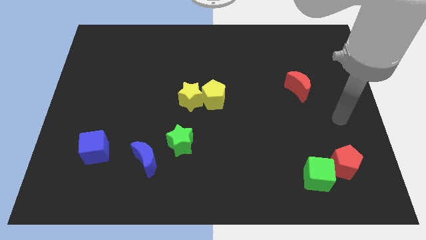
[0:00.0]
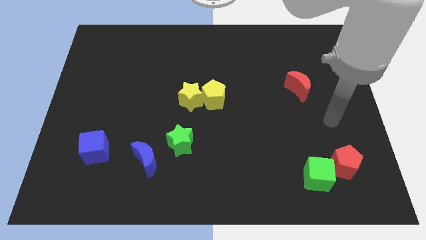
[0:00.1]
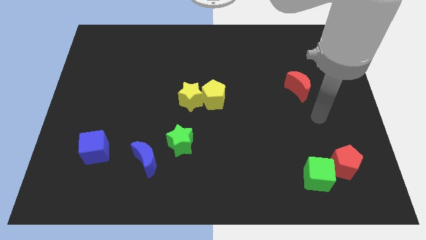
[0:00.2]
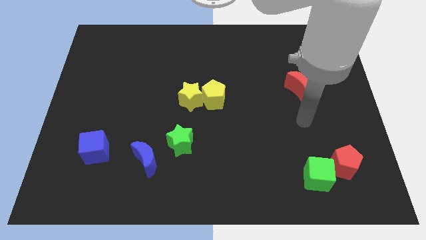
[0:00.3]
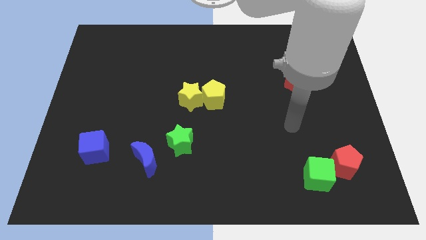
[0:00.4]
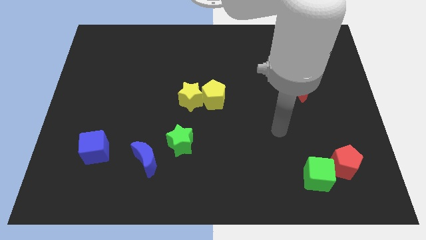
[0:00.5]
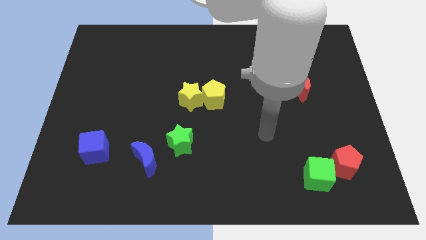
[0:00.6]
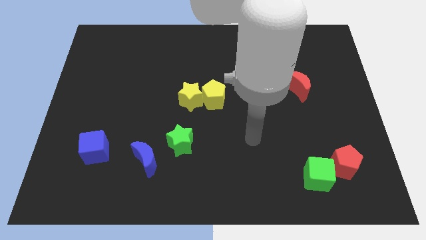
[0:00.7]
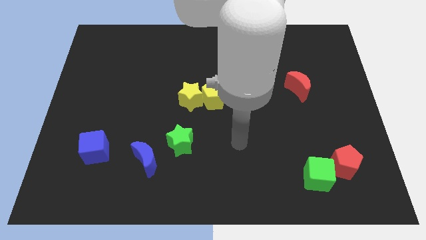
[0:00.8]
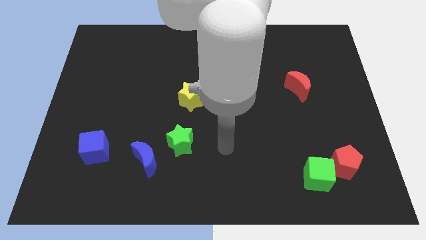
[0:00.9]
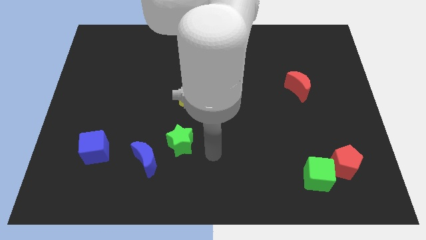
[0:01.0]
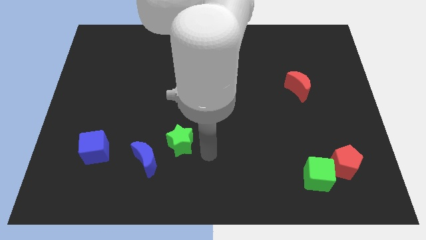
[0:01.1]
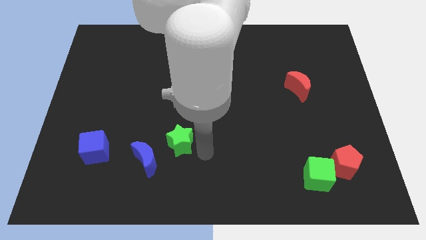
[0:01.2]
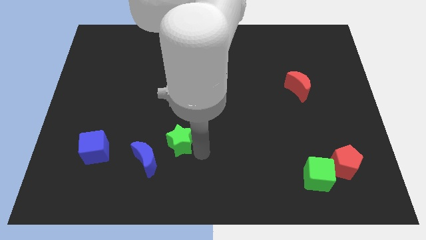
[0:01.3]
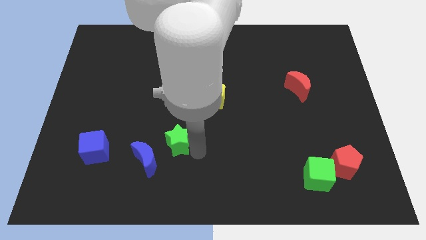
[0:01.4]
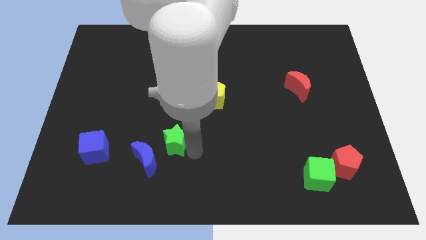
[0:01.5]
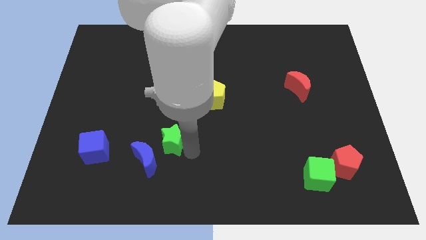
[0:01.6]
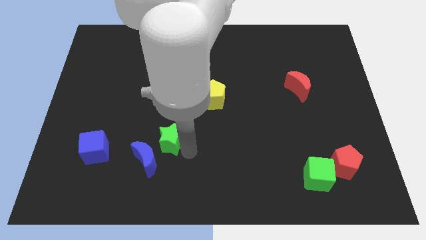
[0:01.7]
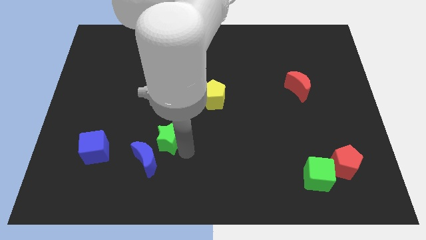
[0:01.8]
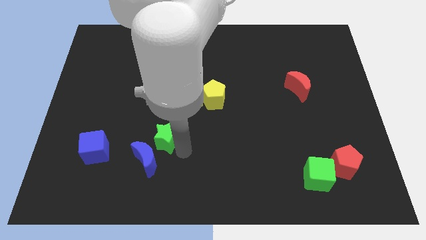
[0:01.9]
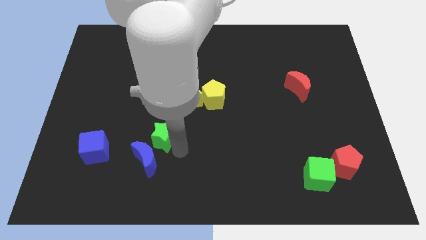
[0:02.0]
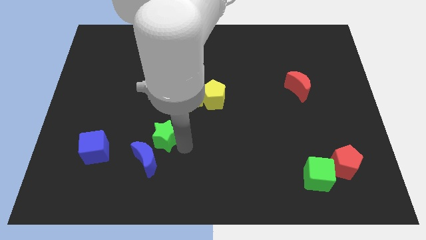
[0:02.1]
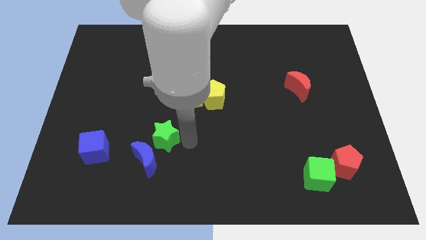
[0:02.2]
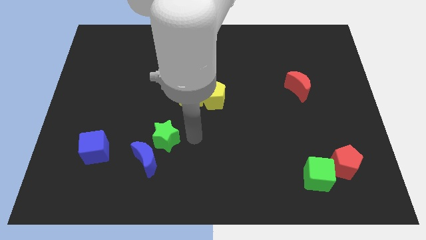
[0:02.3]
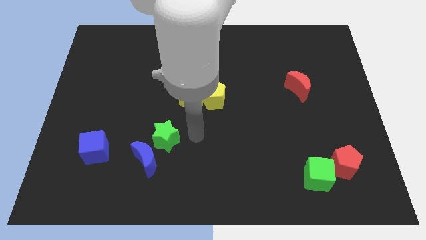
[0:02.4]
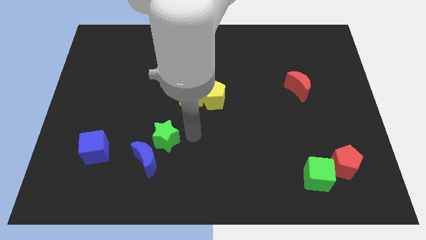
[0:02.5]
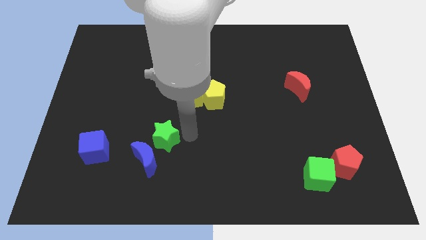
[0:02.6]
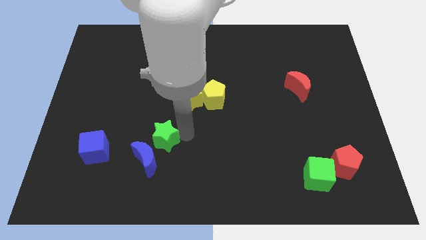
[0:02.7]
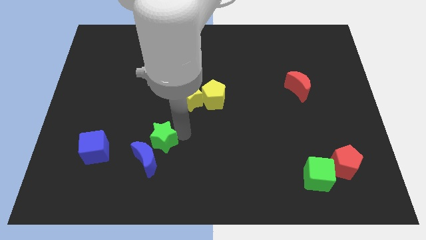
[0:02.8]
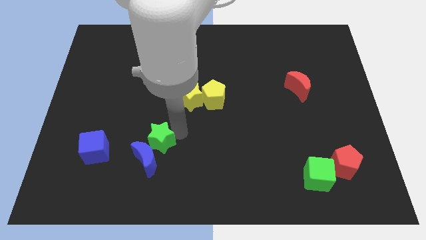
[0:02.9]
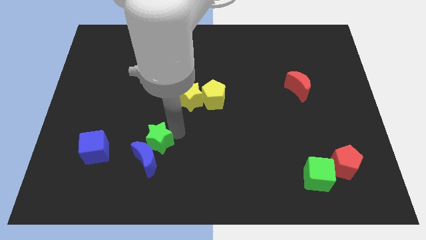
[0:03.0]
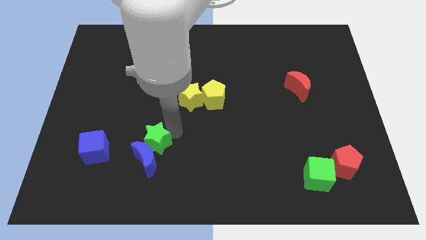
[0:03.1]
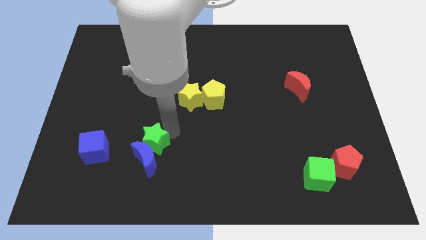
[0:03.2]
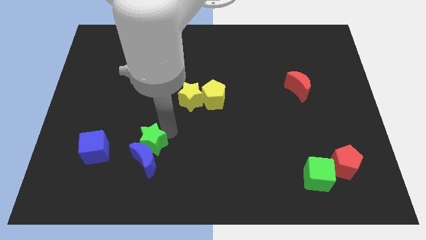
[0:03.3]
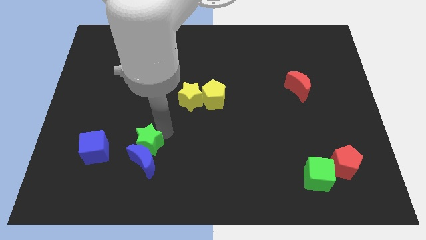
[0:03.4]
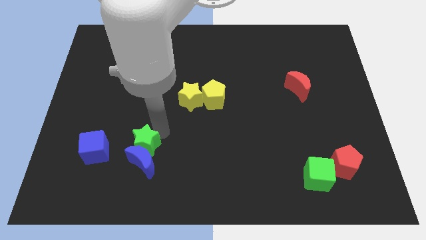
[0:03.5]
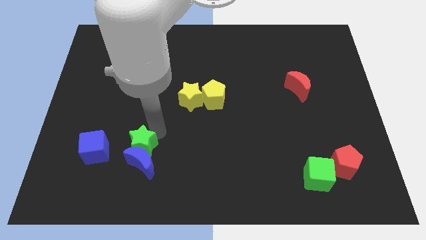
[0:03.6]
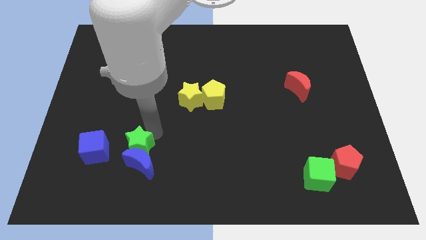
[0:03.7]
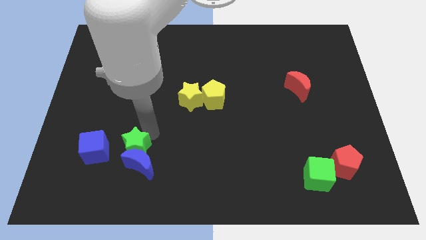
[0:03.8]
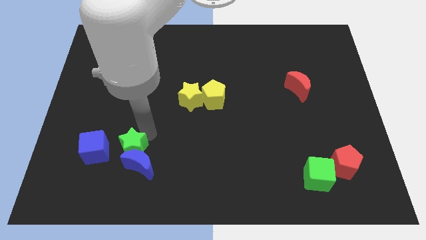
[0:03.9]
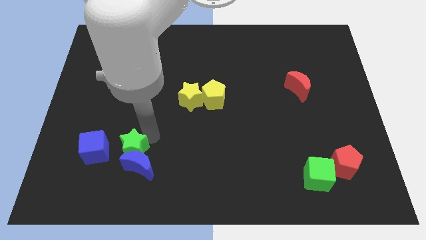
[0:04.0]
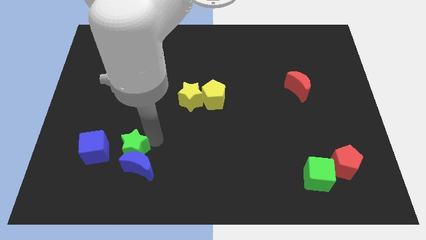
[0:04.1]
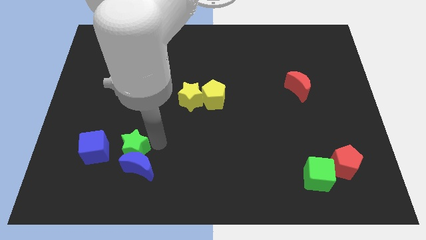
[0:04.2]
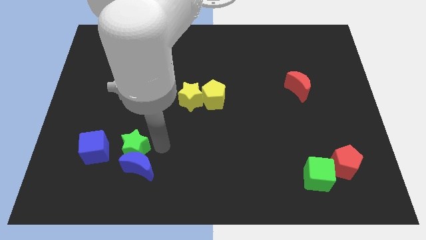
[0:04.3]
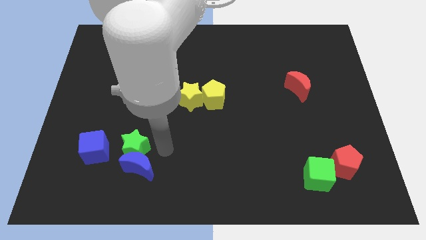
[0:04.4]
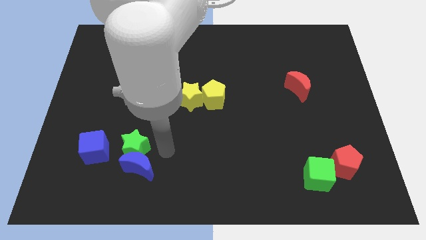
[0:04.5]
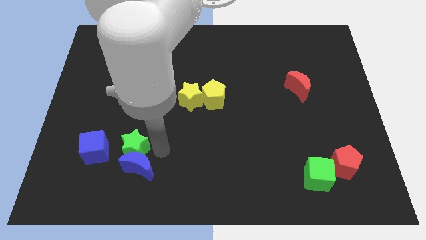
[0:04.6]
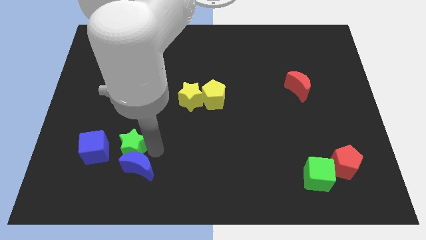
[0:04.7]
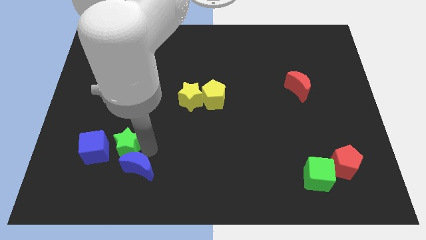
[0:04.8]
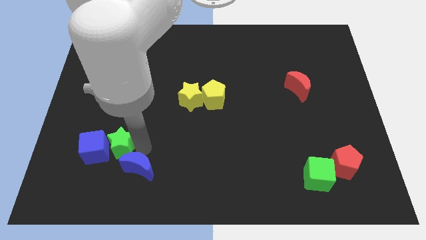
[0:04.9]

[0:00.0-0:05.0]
move the green star towards the blue cube

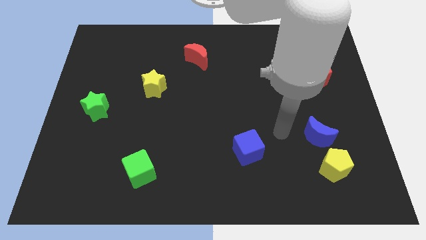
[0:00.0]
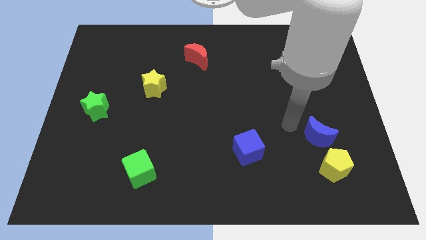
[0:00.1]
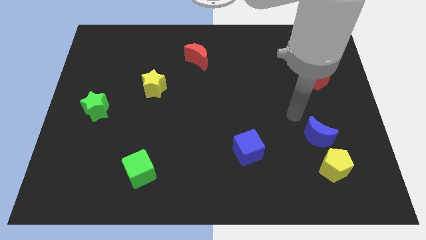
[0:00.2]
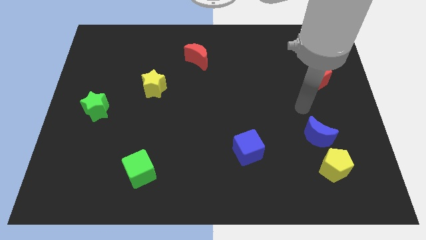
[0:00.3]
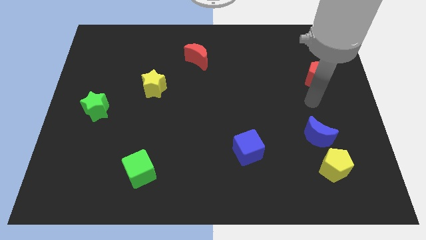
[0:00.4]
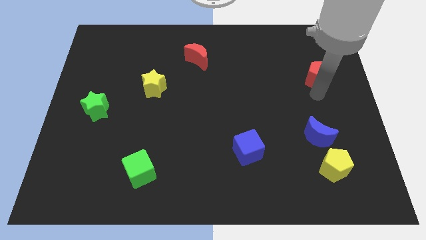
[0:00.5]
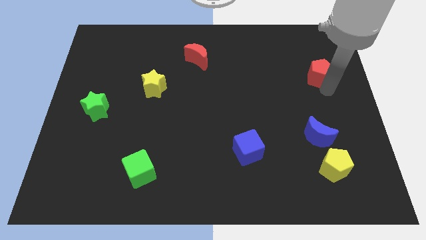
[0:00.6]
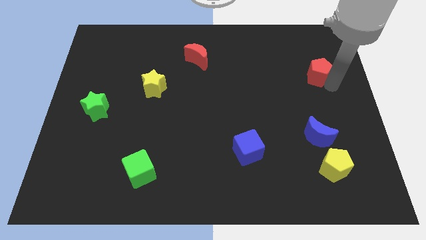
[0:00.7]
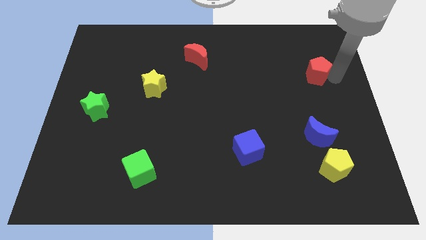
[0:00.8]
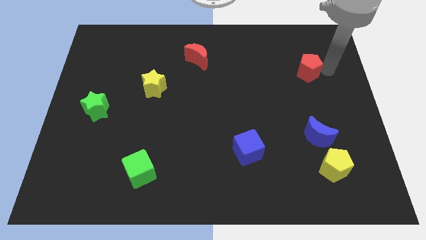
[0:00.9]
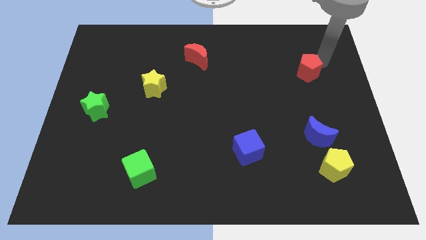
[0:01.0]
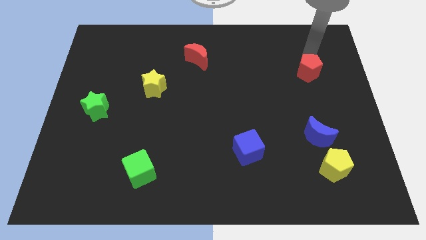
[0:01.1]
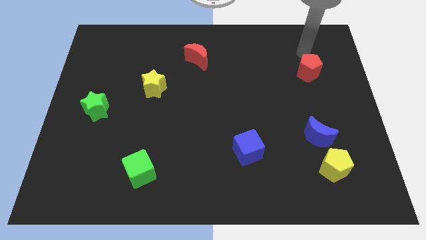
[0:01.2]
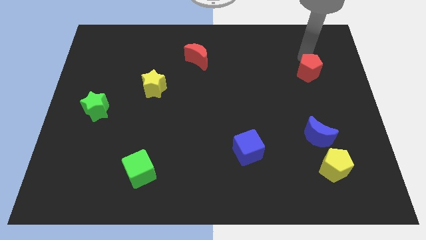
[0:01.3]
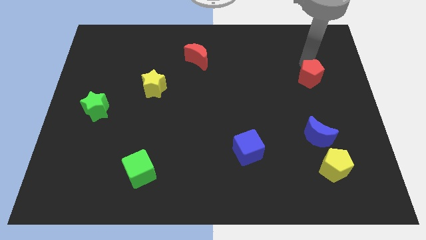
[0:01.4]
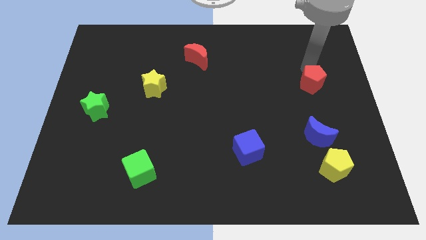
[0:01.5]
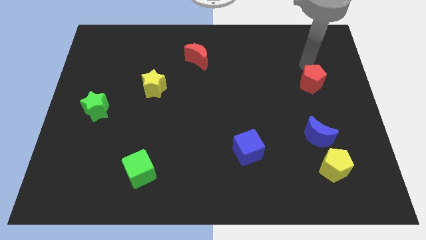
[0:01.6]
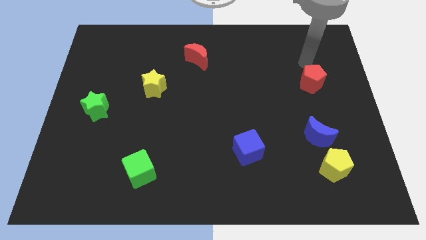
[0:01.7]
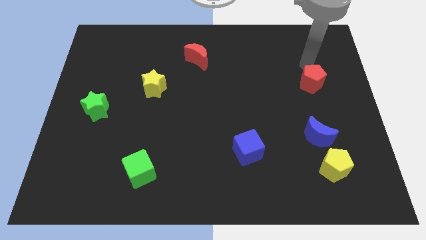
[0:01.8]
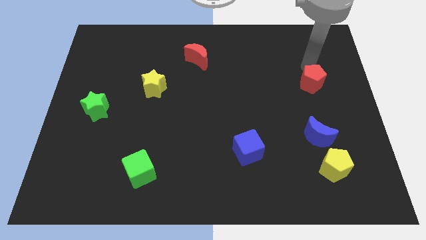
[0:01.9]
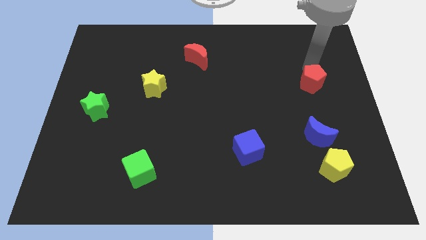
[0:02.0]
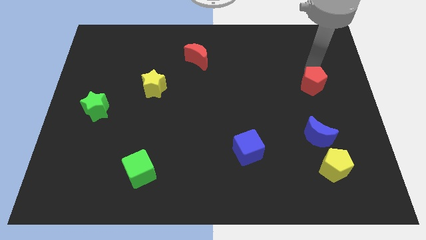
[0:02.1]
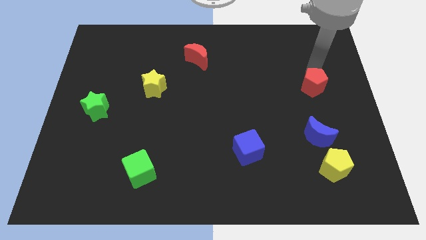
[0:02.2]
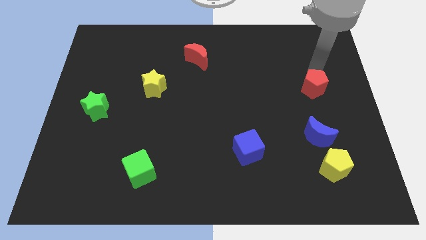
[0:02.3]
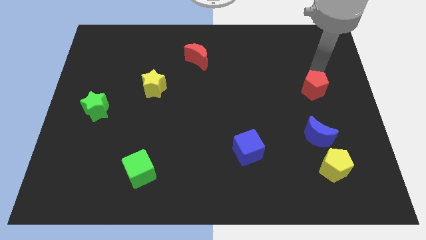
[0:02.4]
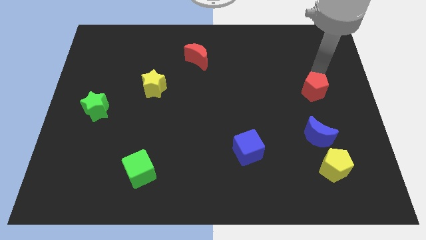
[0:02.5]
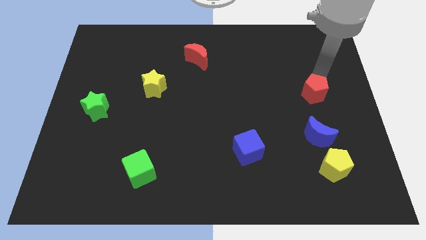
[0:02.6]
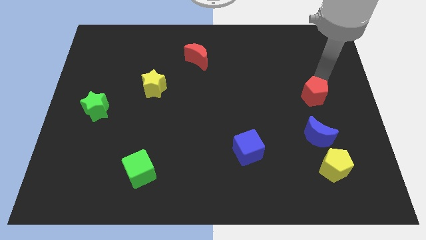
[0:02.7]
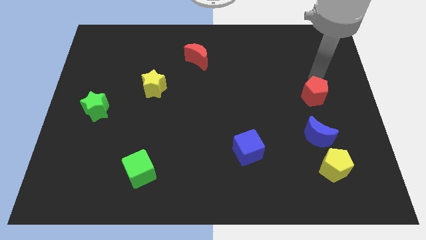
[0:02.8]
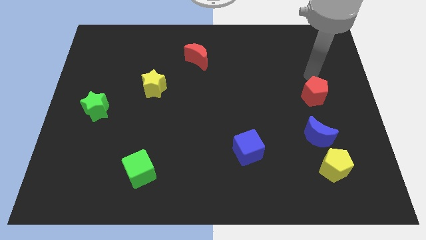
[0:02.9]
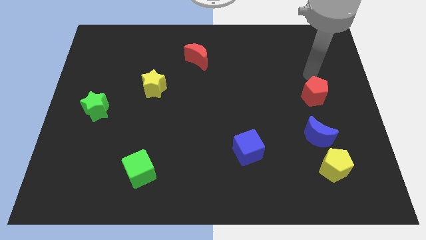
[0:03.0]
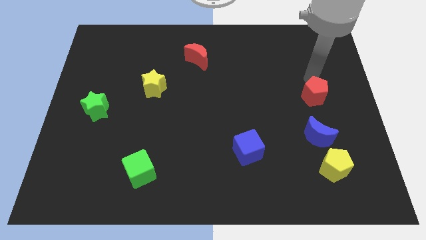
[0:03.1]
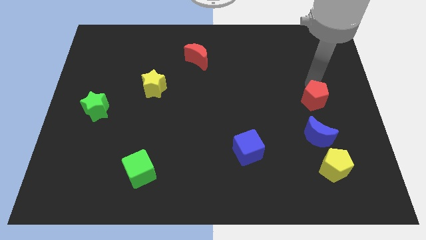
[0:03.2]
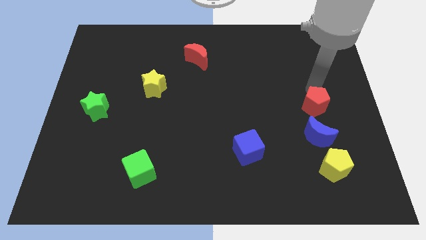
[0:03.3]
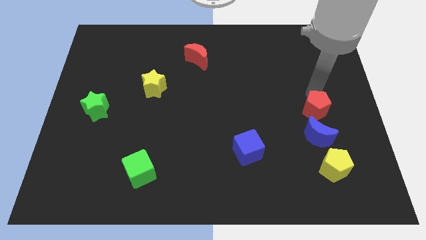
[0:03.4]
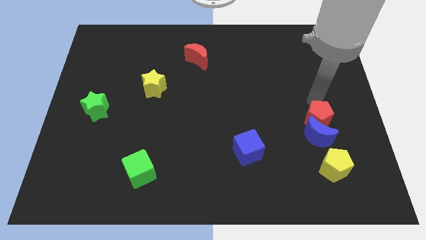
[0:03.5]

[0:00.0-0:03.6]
put the red pentagon to the blue moon
